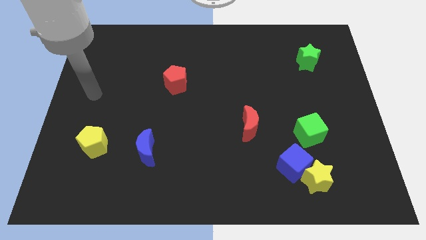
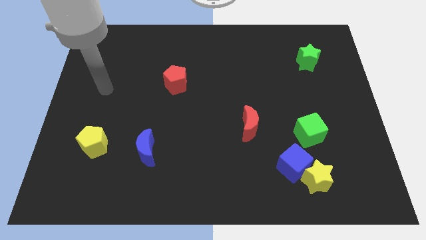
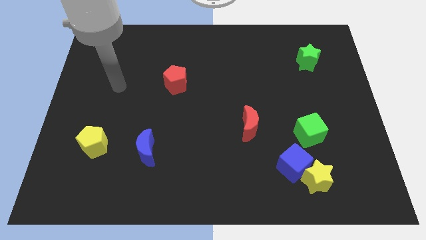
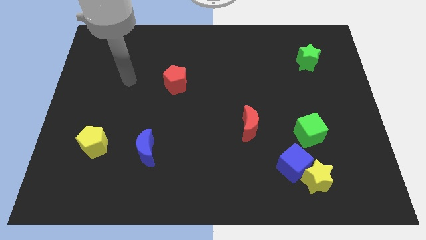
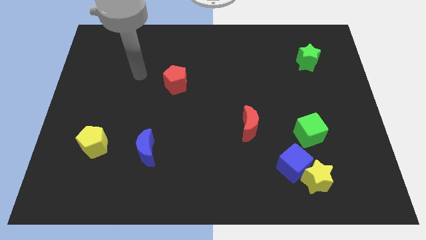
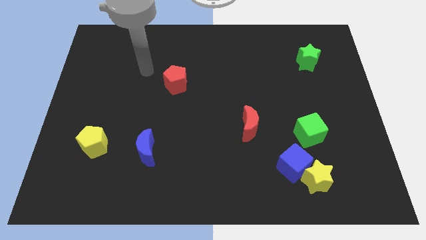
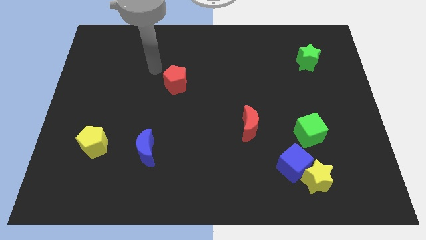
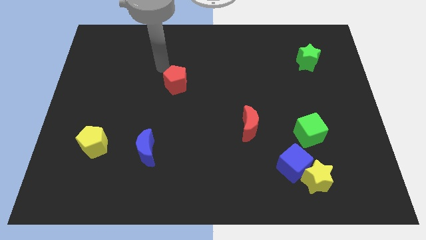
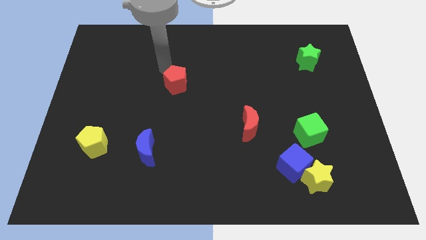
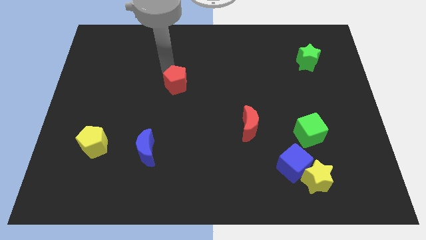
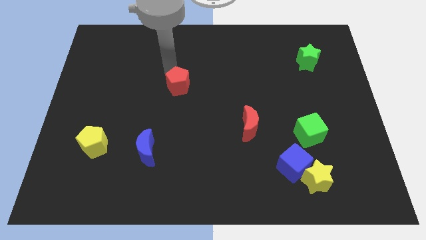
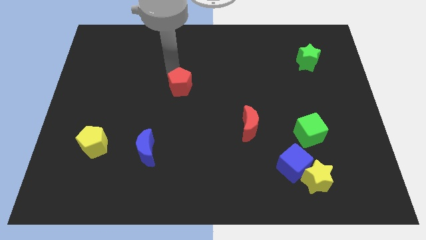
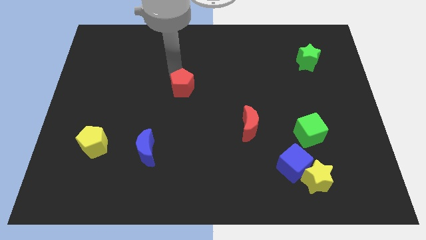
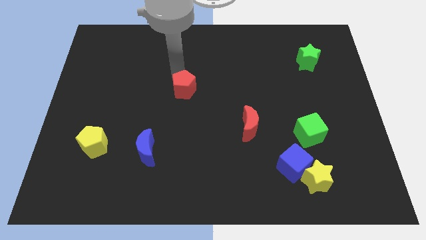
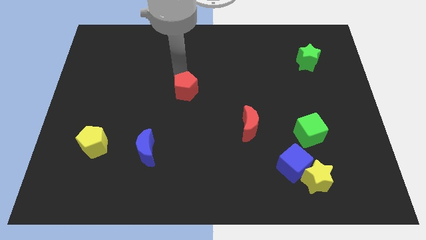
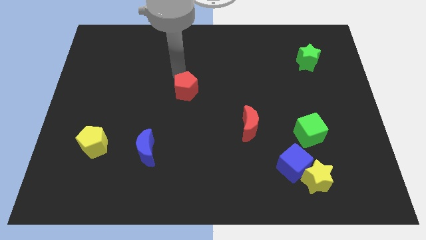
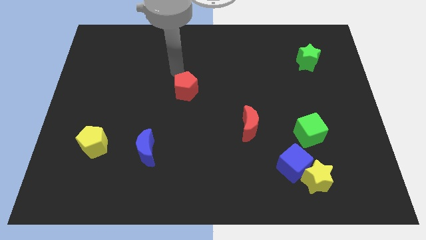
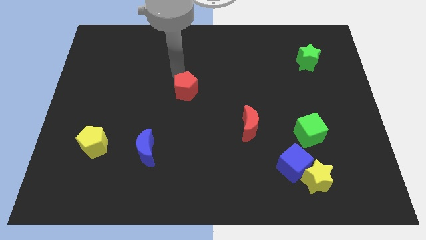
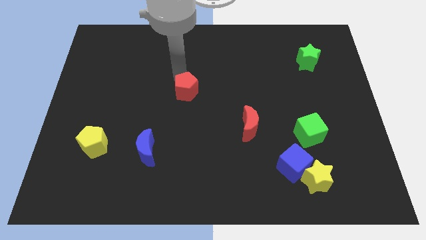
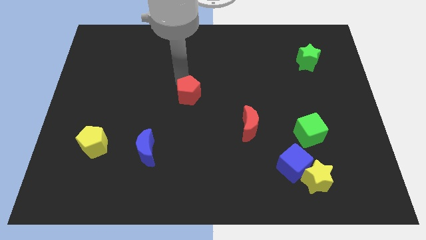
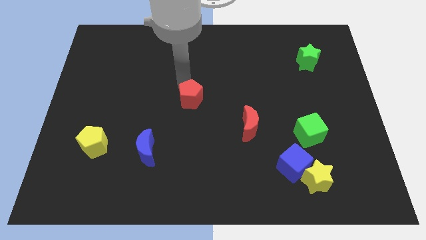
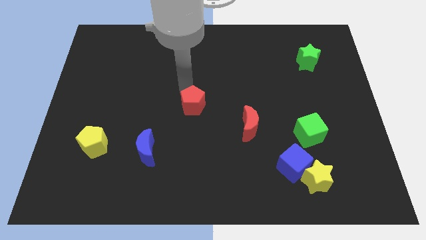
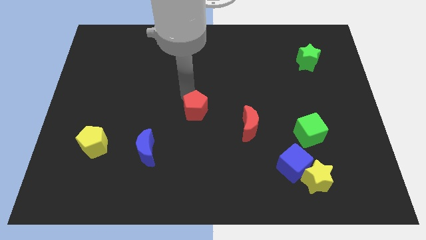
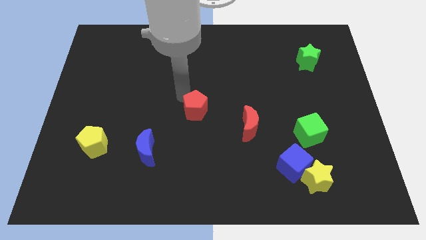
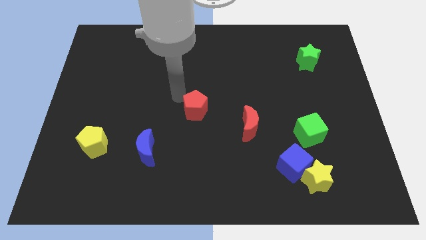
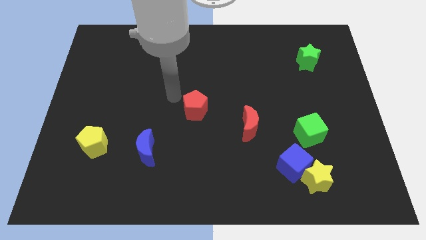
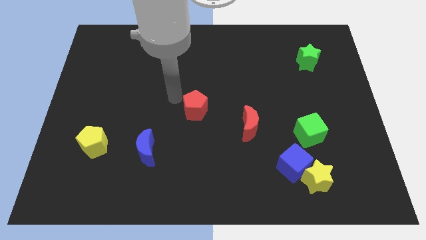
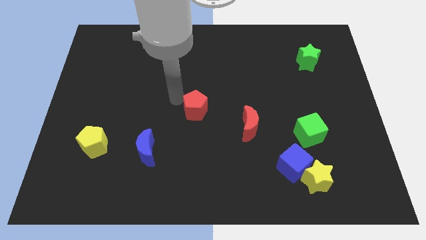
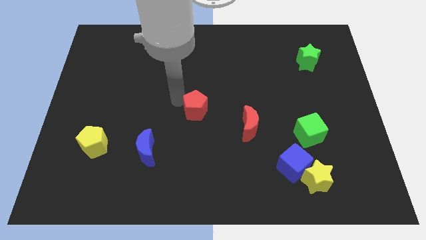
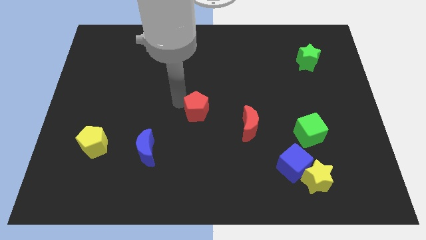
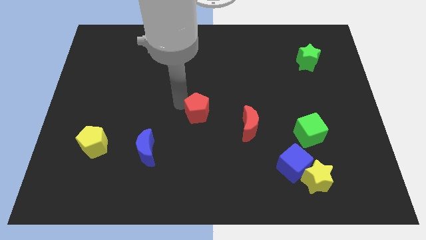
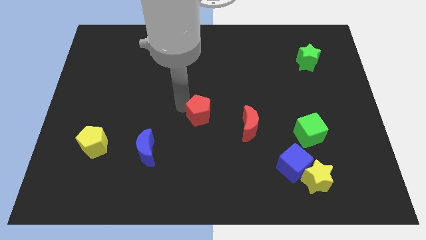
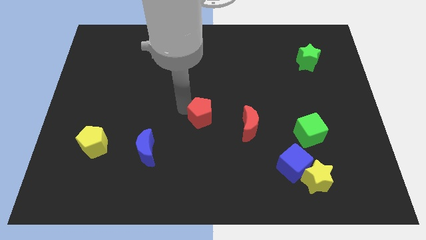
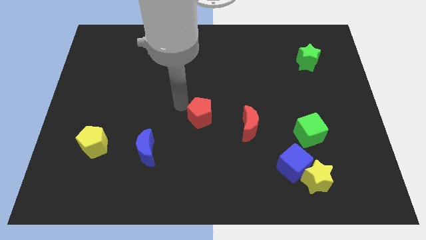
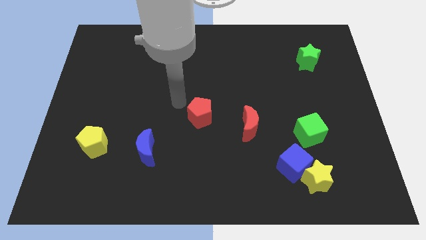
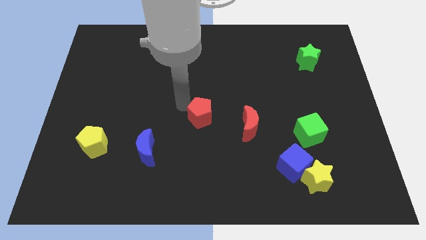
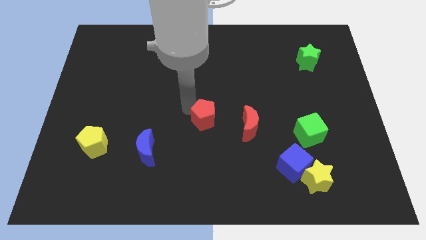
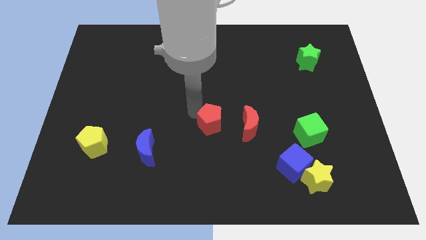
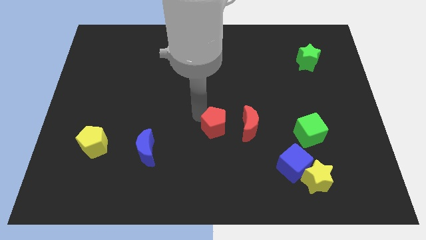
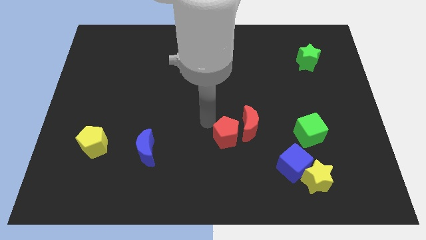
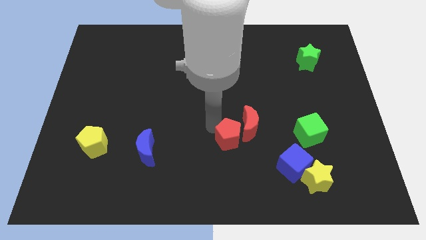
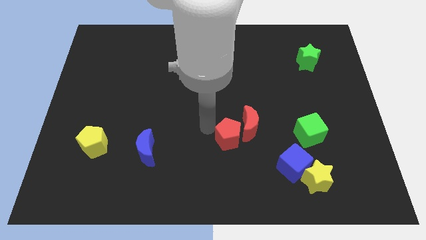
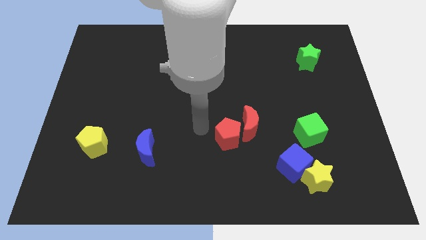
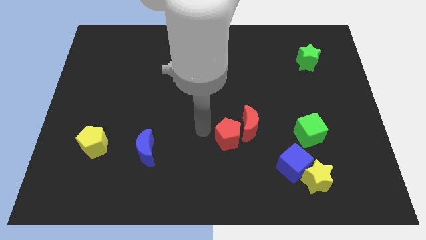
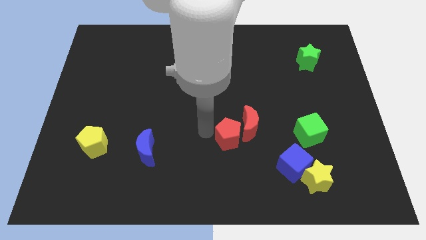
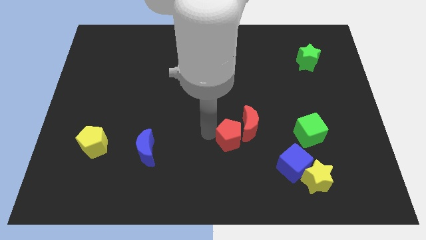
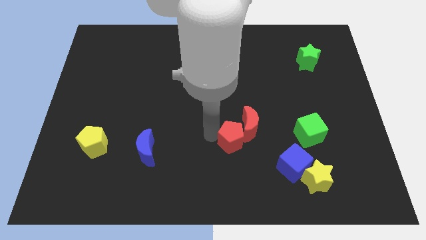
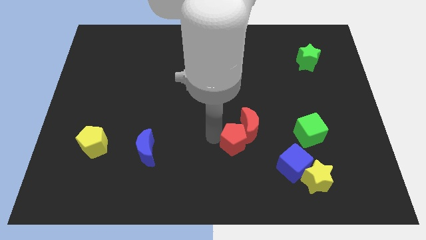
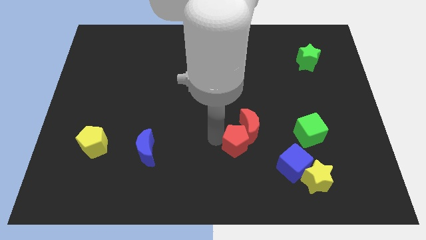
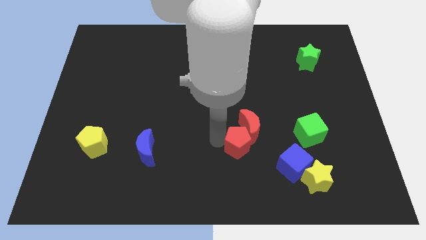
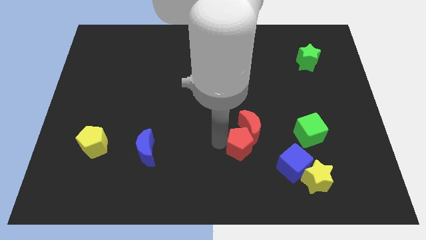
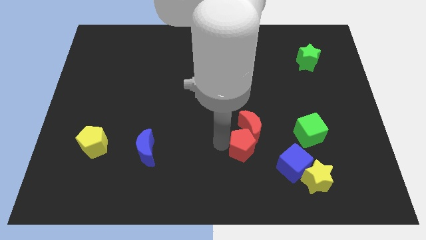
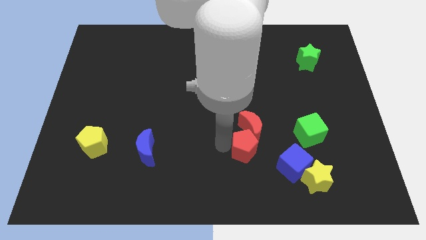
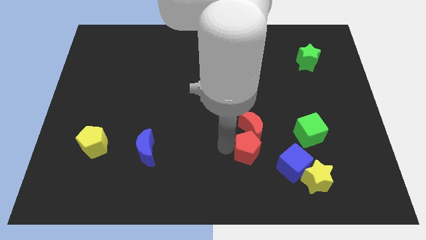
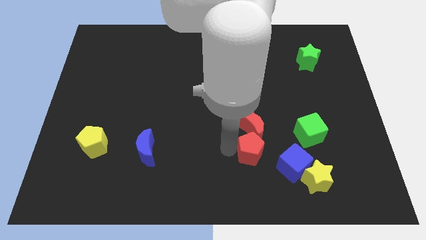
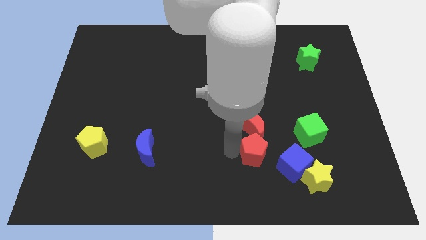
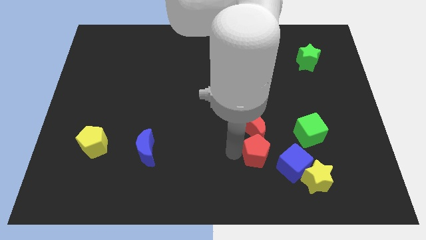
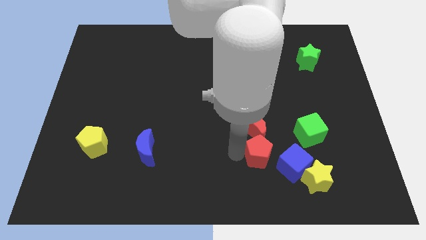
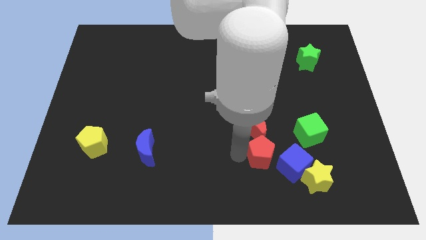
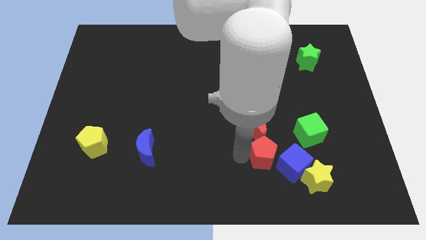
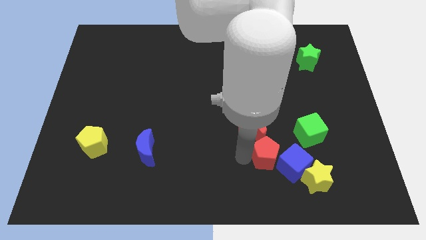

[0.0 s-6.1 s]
slide the red pentagon to the blue cube

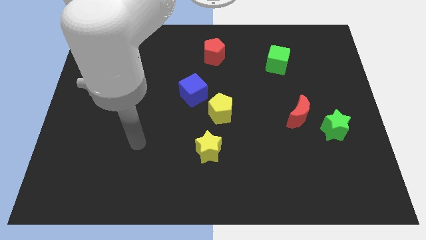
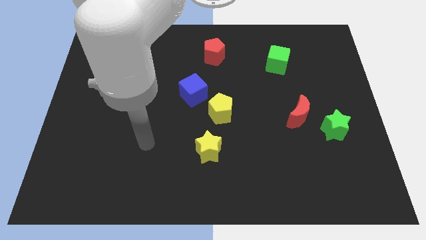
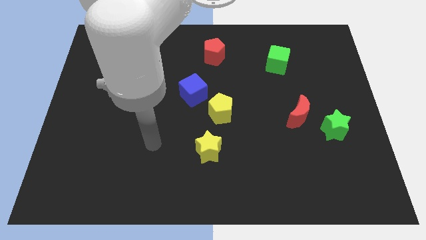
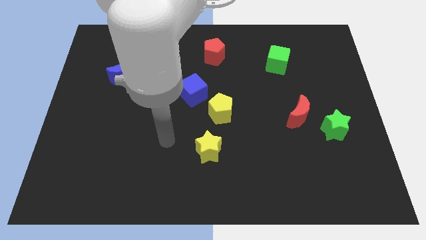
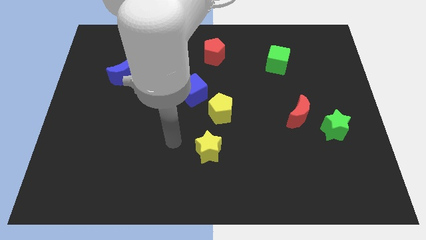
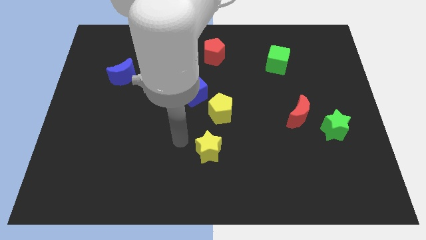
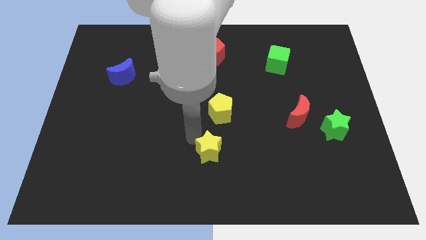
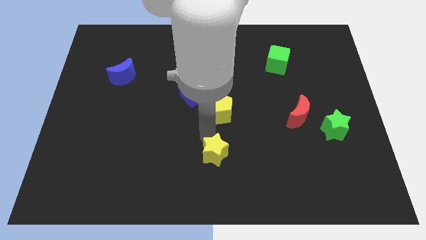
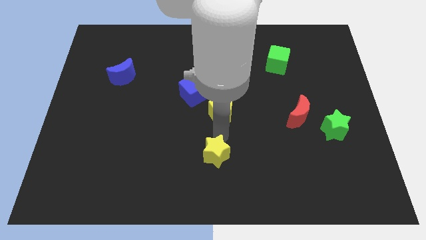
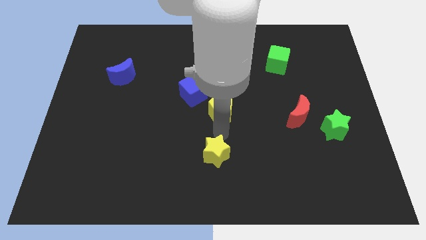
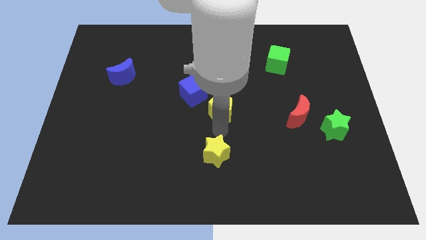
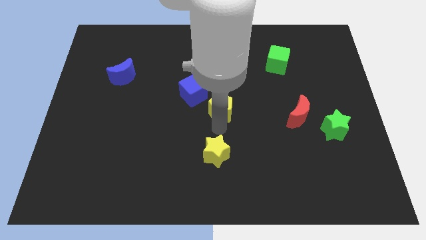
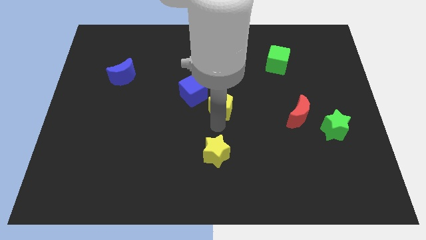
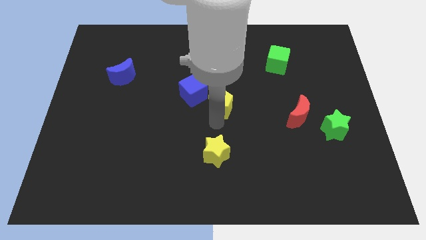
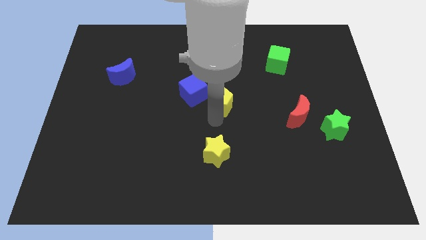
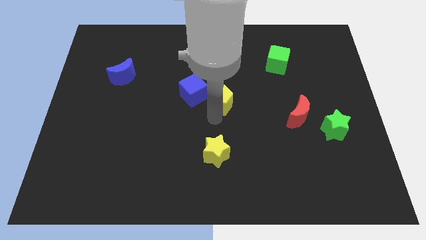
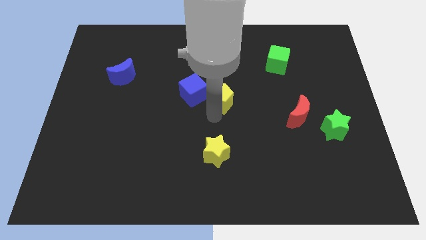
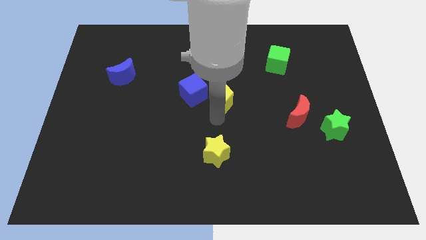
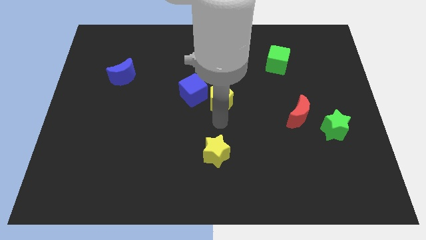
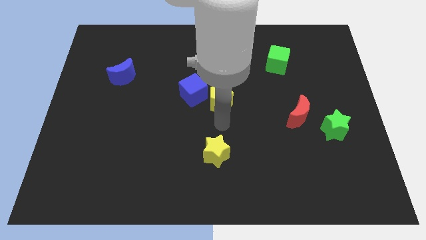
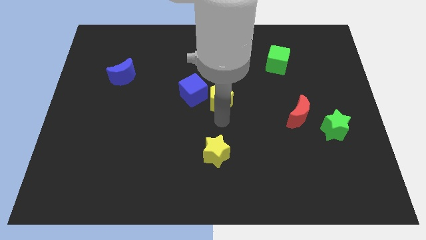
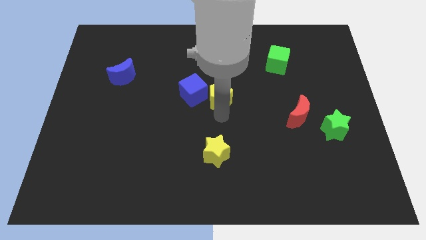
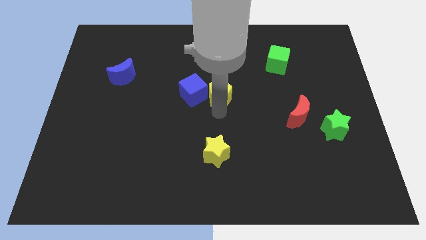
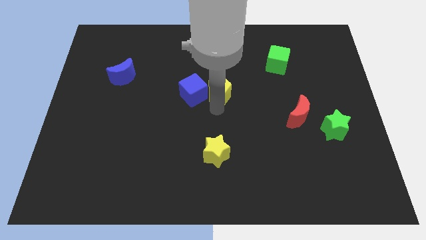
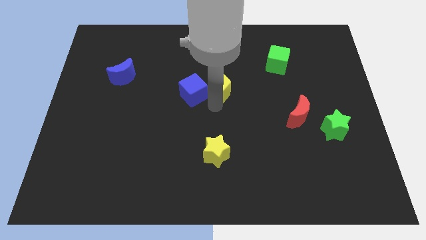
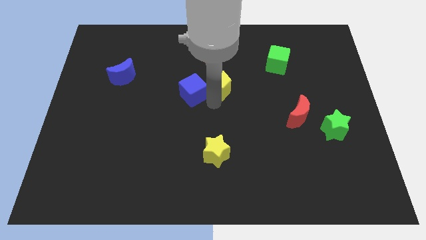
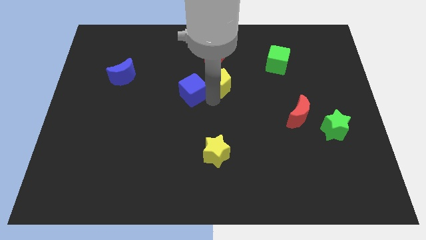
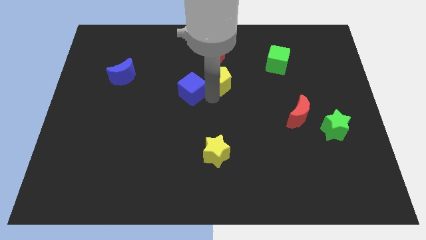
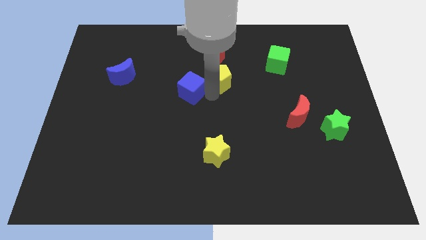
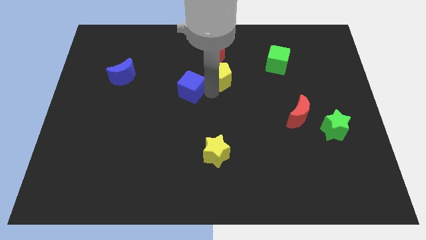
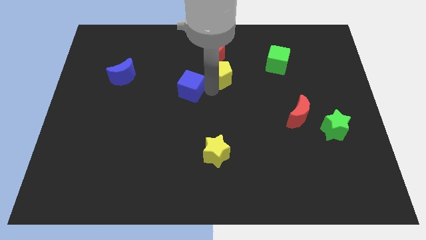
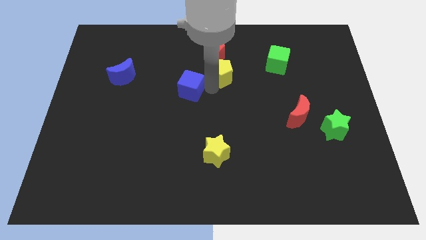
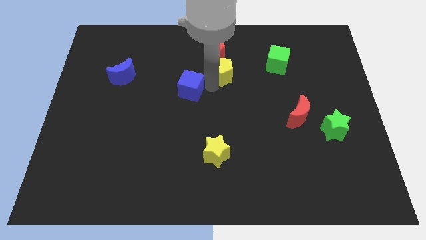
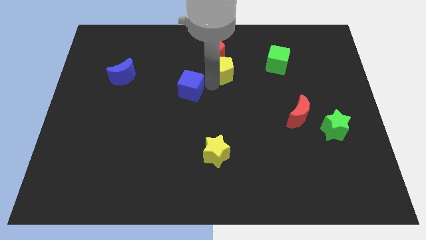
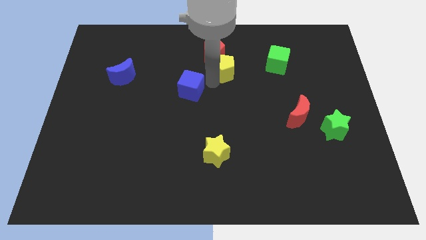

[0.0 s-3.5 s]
put the yellow pentagon close to the red pentagon
